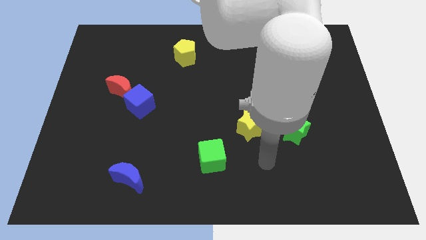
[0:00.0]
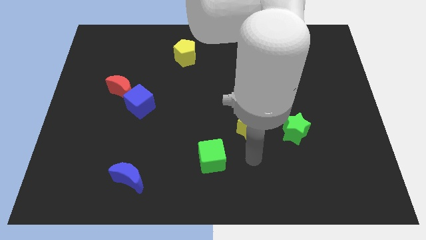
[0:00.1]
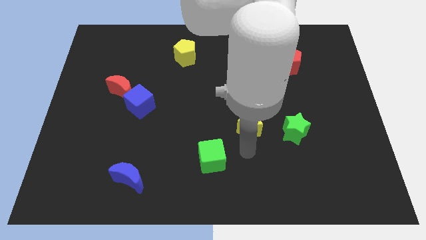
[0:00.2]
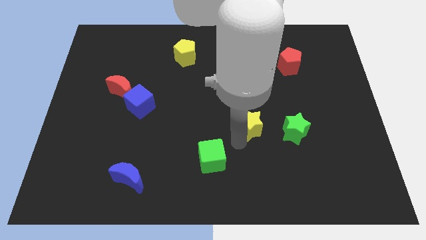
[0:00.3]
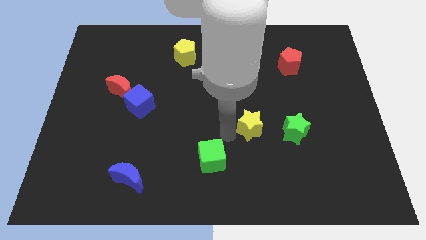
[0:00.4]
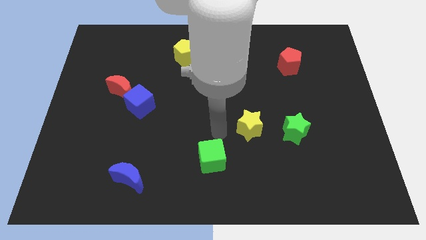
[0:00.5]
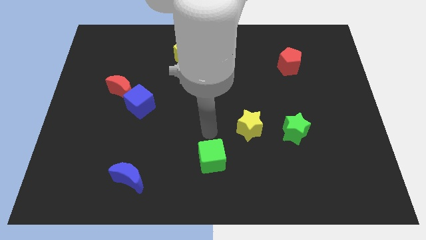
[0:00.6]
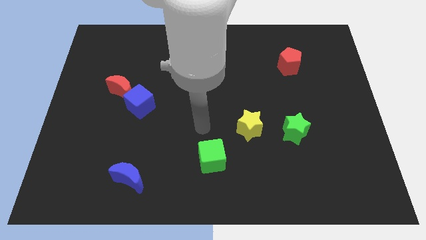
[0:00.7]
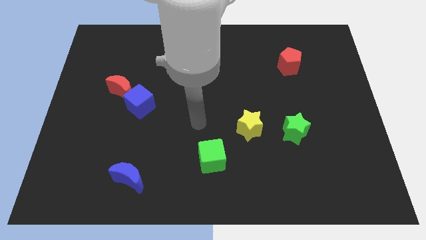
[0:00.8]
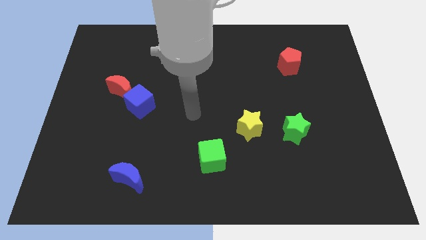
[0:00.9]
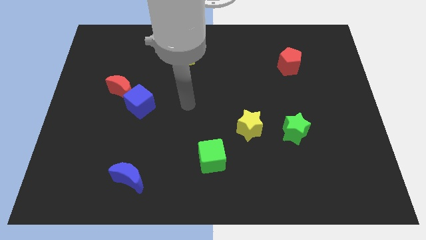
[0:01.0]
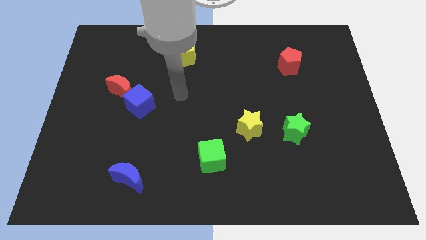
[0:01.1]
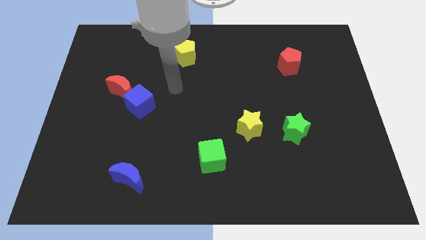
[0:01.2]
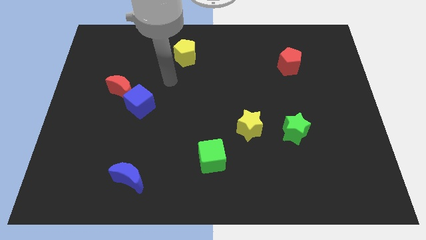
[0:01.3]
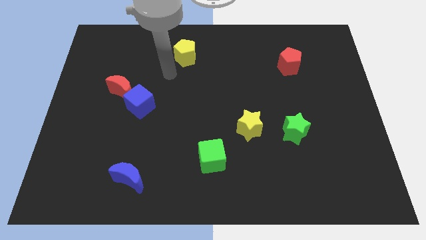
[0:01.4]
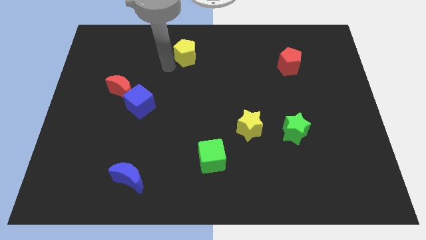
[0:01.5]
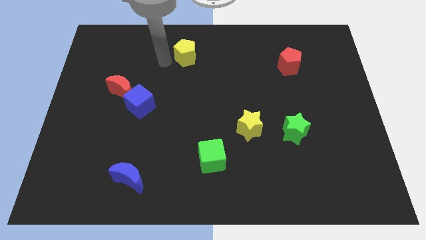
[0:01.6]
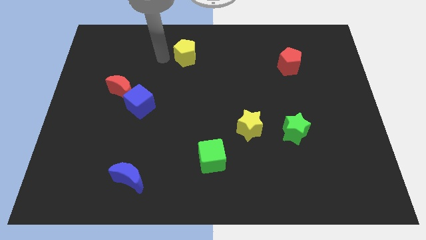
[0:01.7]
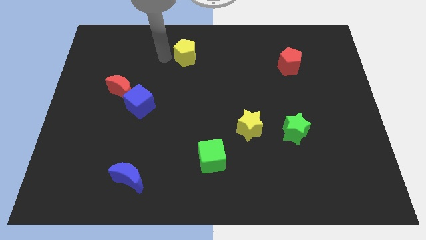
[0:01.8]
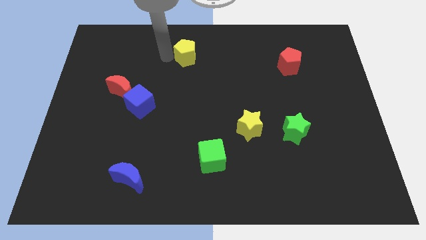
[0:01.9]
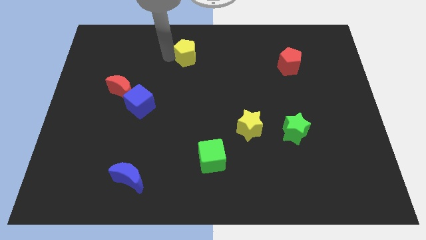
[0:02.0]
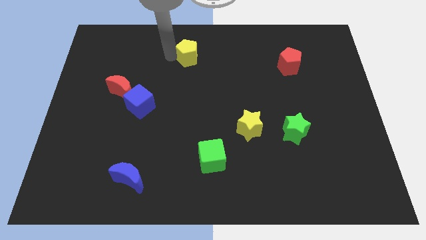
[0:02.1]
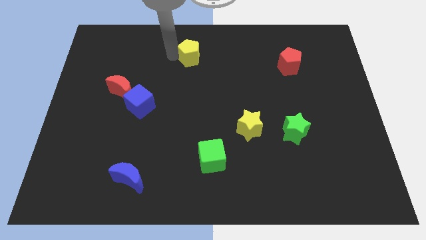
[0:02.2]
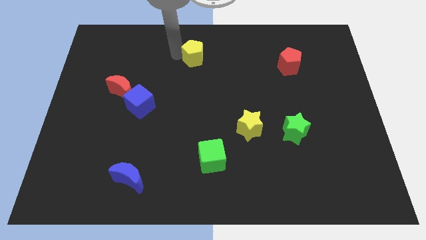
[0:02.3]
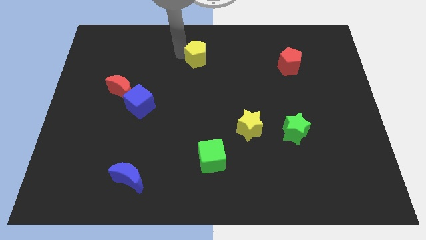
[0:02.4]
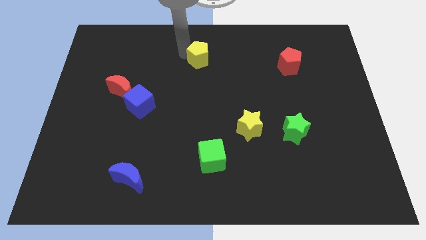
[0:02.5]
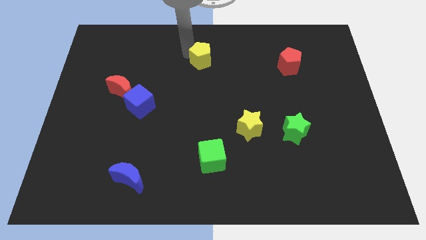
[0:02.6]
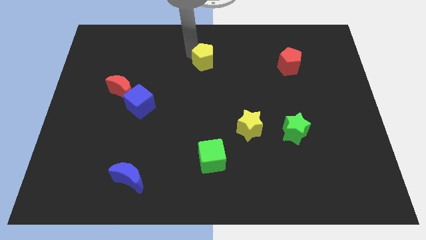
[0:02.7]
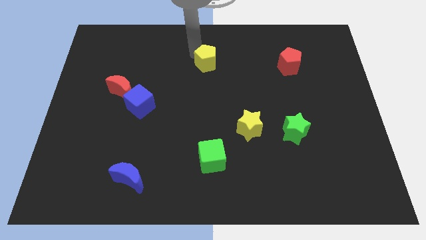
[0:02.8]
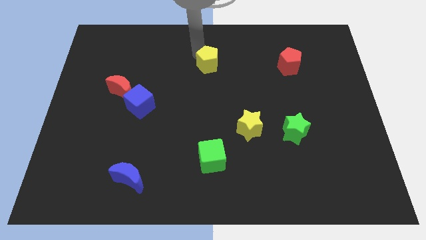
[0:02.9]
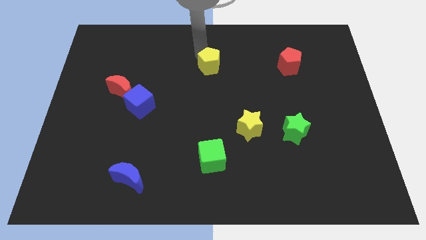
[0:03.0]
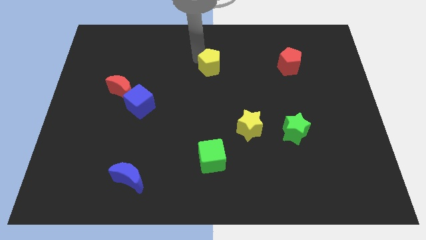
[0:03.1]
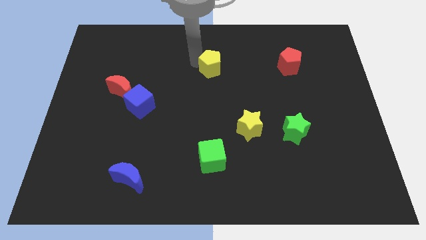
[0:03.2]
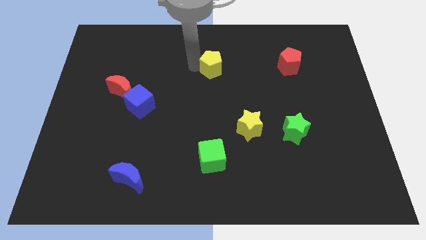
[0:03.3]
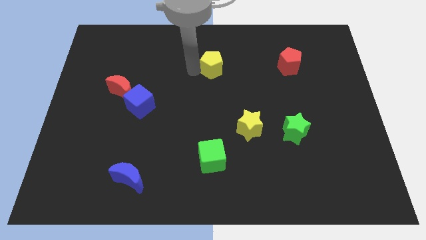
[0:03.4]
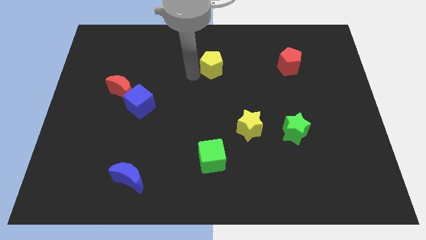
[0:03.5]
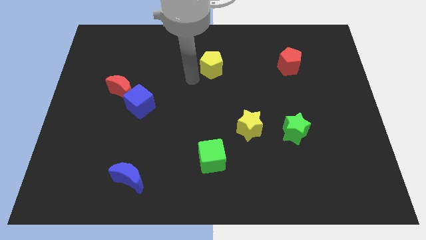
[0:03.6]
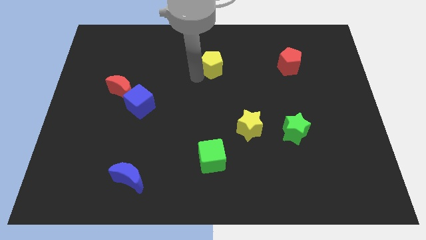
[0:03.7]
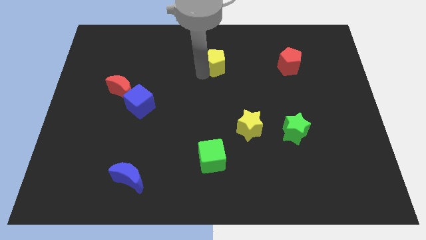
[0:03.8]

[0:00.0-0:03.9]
slide the yellow pentagon to the right a bit

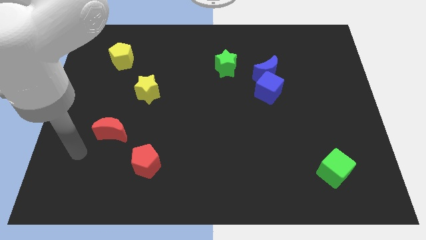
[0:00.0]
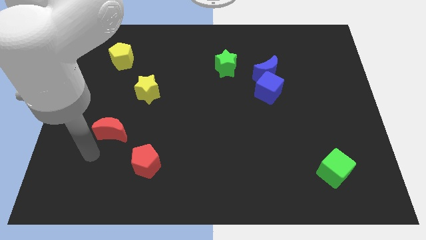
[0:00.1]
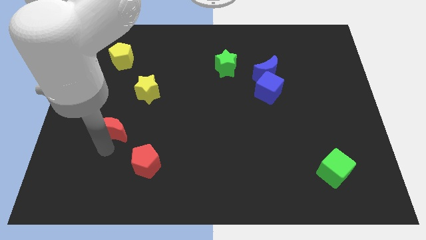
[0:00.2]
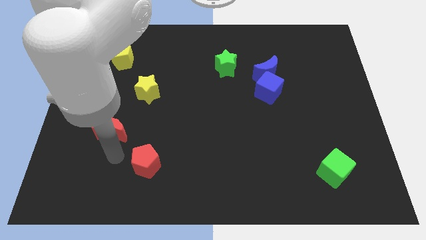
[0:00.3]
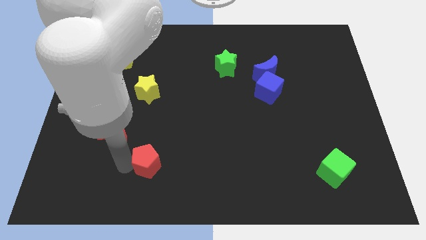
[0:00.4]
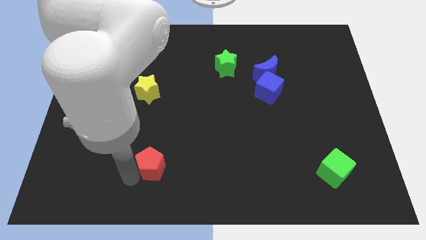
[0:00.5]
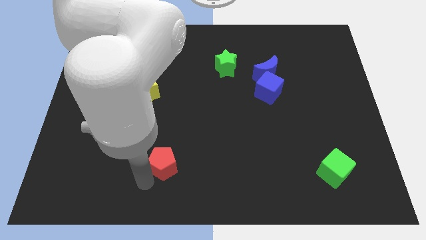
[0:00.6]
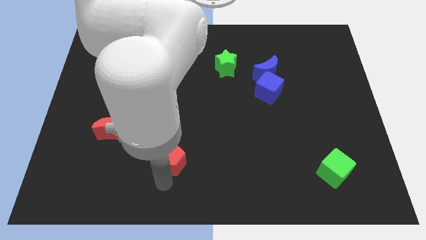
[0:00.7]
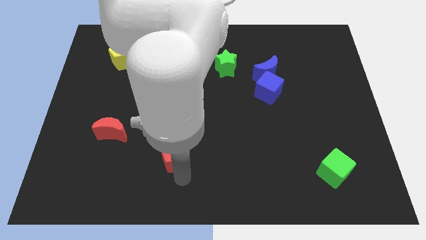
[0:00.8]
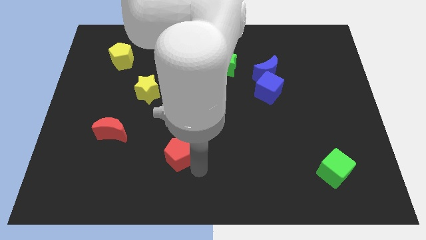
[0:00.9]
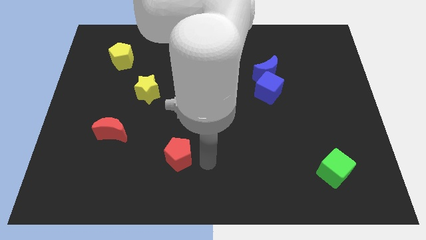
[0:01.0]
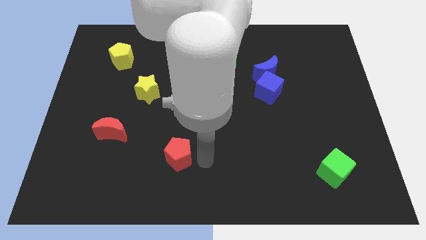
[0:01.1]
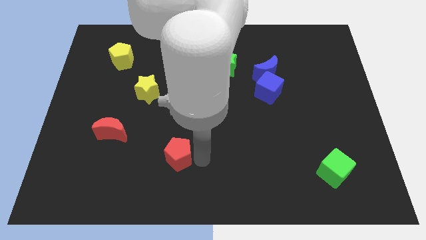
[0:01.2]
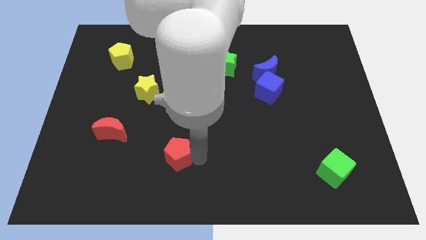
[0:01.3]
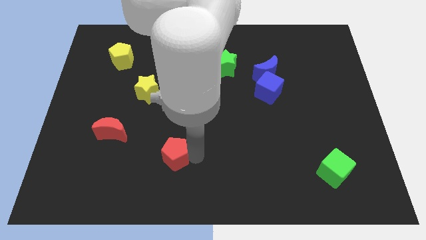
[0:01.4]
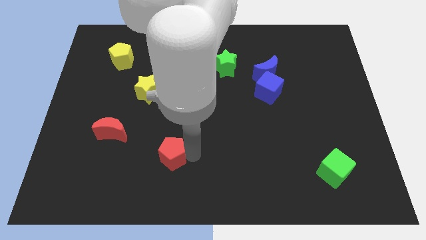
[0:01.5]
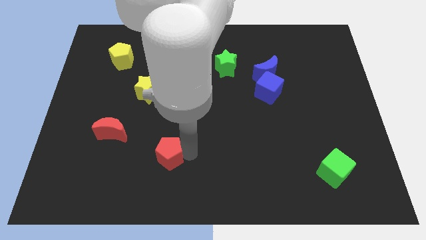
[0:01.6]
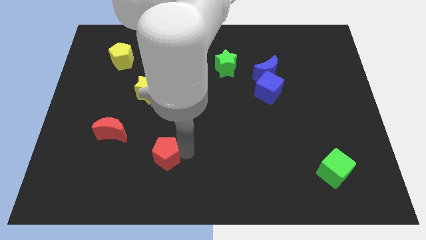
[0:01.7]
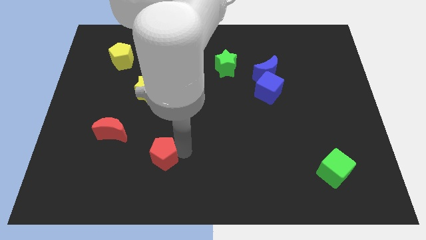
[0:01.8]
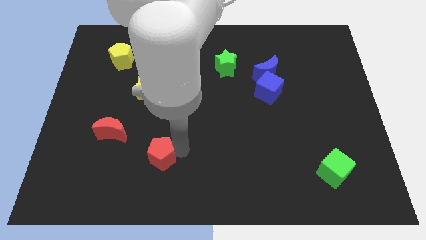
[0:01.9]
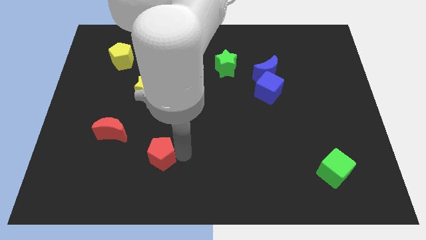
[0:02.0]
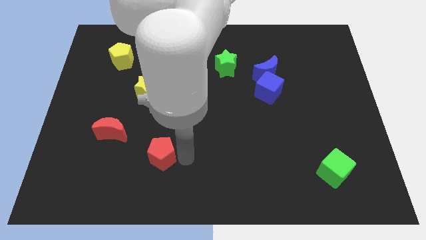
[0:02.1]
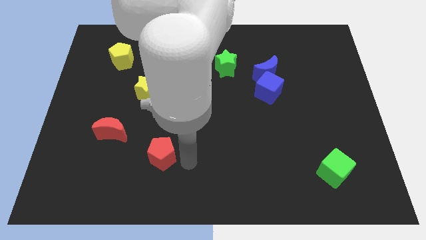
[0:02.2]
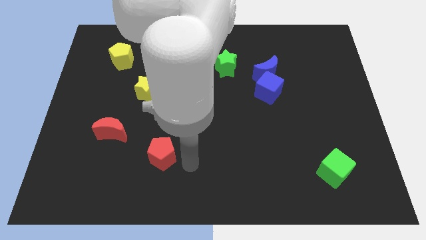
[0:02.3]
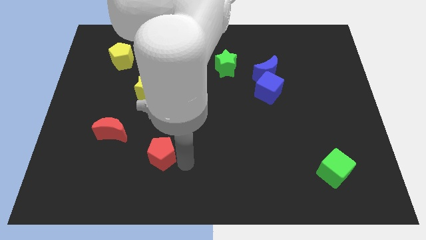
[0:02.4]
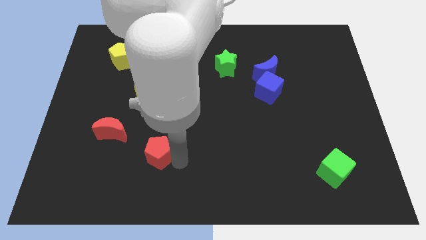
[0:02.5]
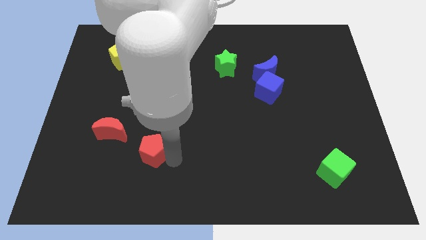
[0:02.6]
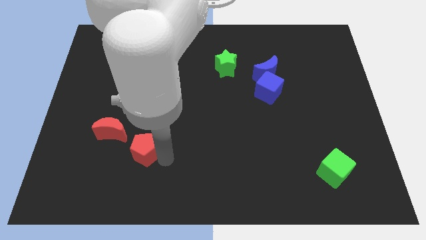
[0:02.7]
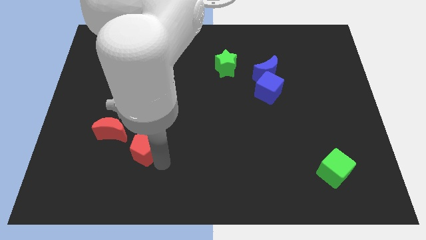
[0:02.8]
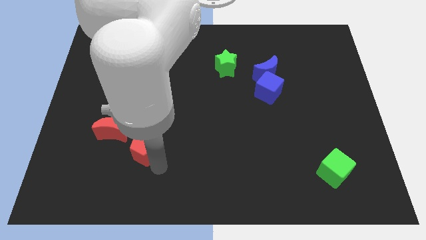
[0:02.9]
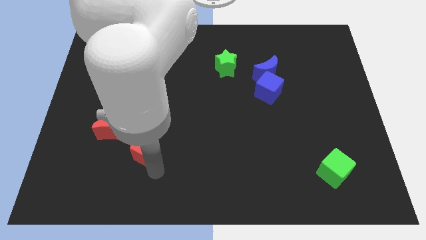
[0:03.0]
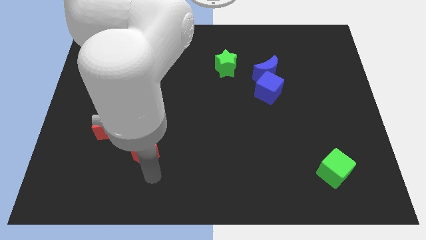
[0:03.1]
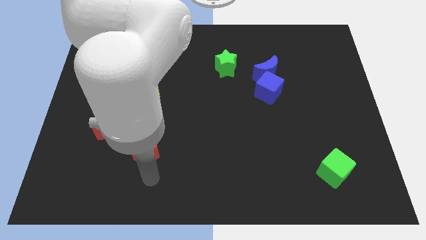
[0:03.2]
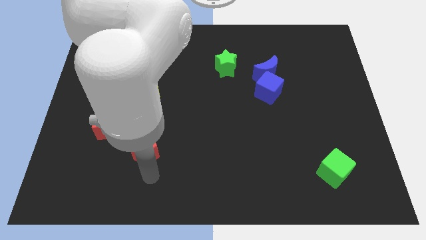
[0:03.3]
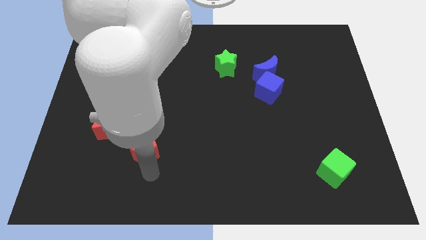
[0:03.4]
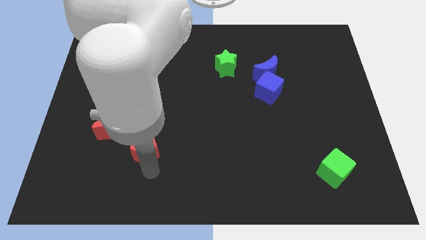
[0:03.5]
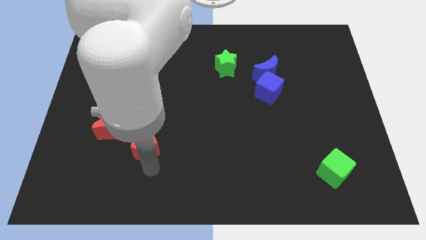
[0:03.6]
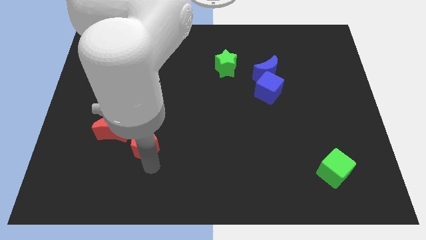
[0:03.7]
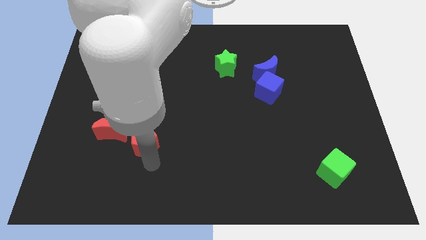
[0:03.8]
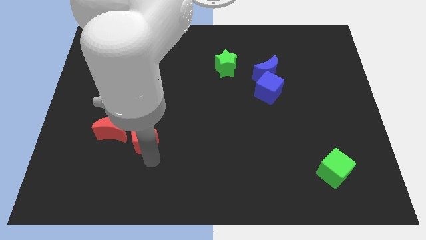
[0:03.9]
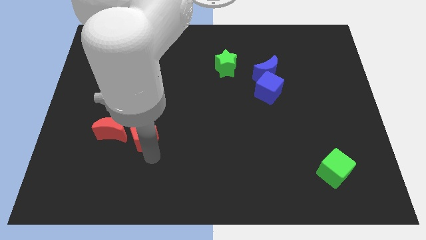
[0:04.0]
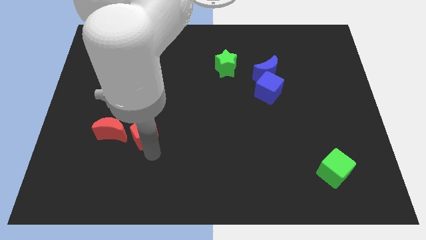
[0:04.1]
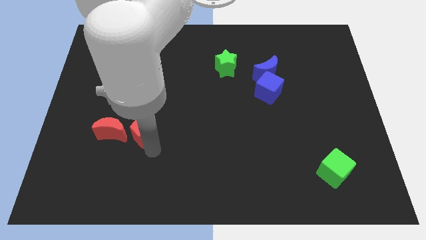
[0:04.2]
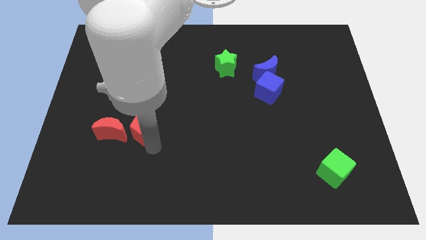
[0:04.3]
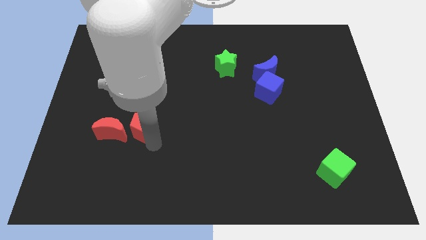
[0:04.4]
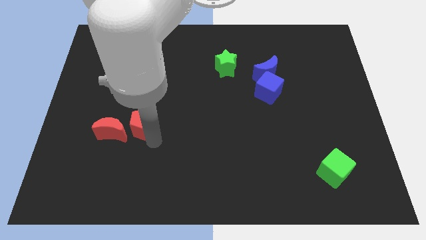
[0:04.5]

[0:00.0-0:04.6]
slightly move the red pentagon diagonally up and to the left
